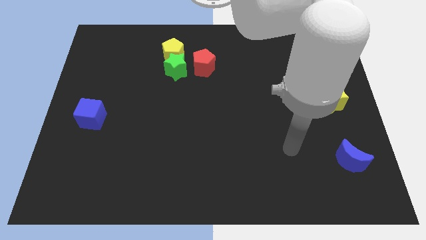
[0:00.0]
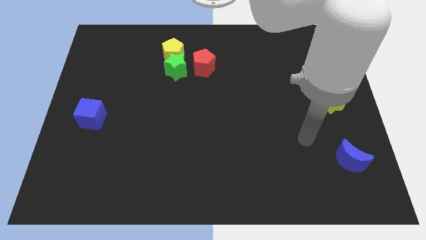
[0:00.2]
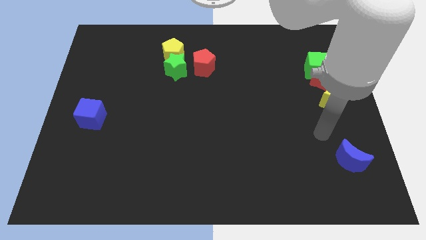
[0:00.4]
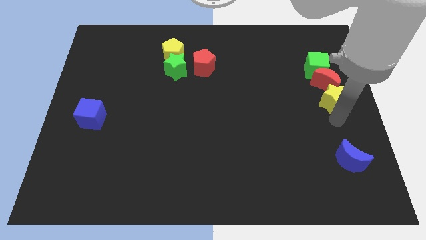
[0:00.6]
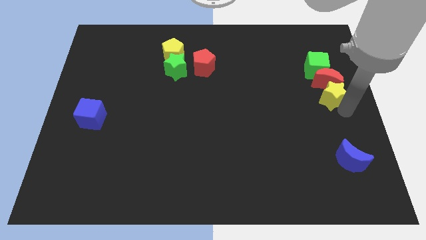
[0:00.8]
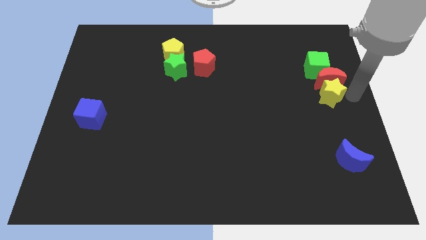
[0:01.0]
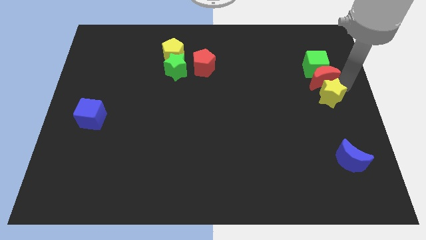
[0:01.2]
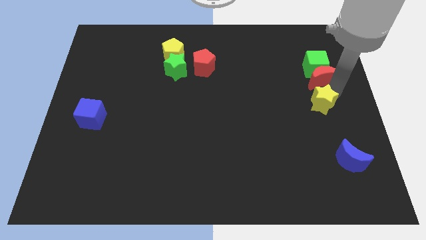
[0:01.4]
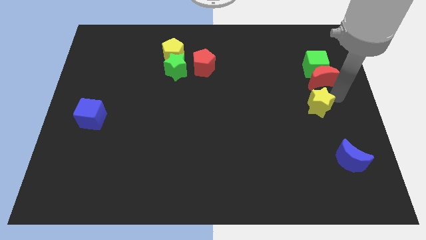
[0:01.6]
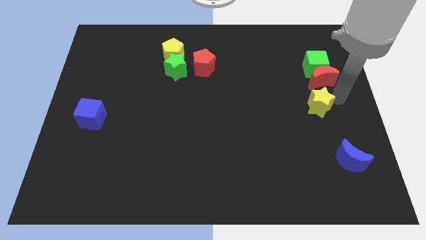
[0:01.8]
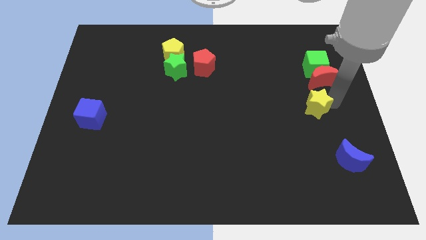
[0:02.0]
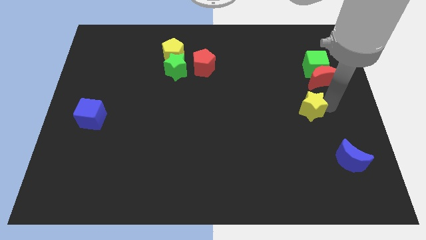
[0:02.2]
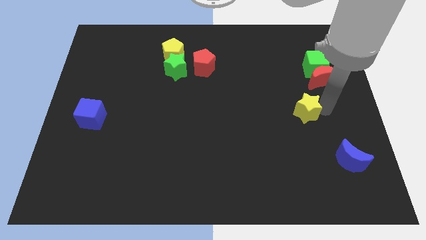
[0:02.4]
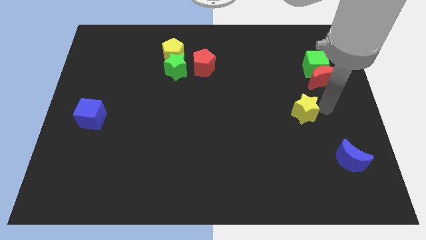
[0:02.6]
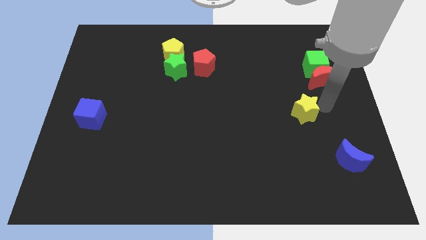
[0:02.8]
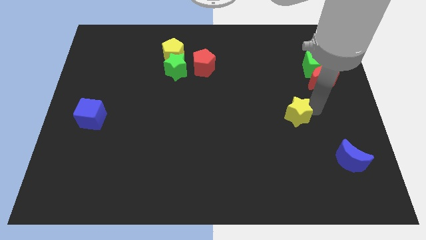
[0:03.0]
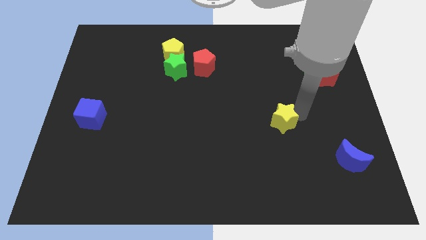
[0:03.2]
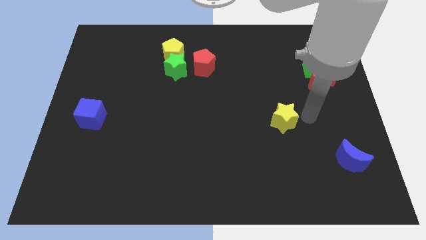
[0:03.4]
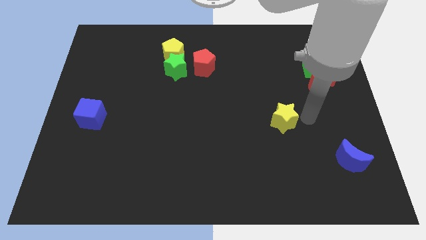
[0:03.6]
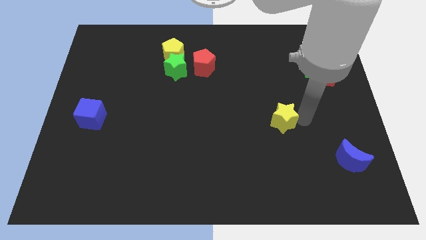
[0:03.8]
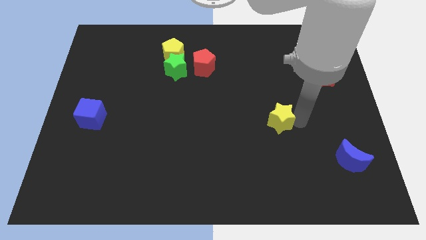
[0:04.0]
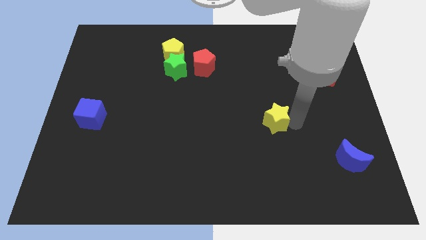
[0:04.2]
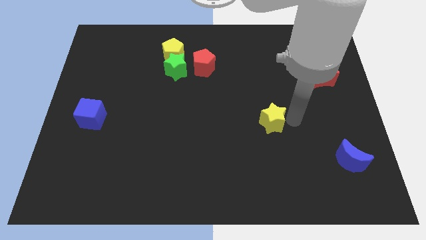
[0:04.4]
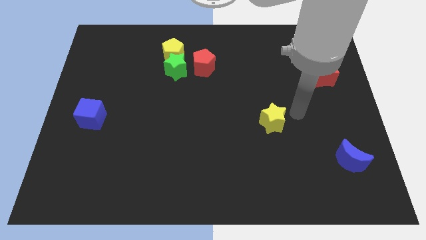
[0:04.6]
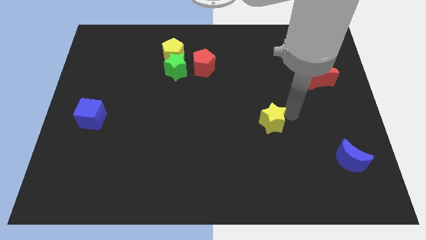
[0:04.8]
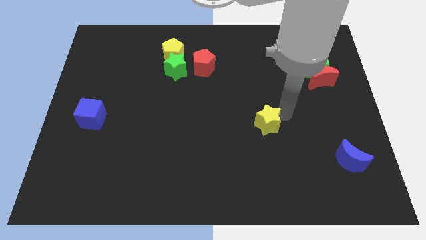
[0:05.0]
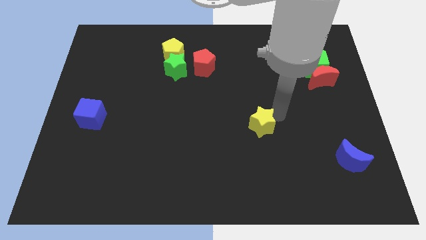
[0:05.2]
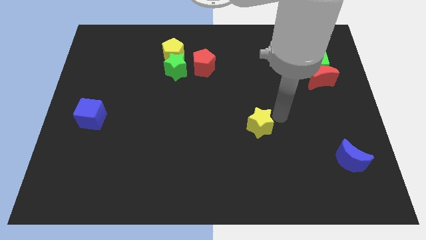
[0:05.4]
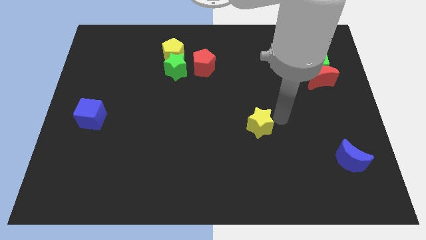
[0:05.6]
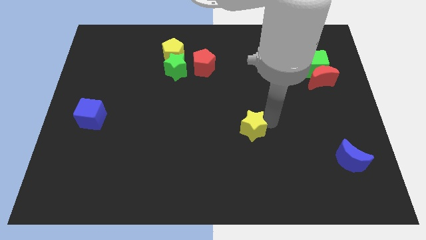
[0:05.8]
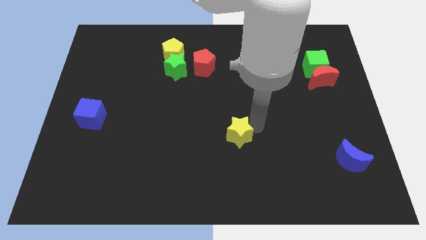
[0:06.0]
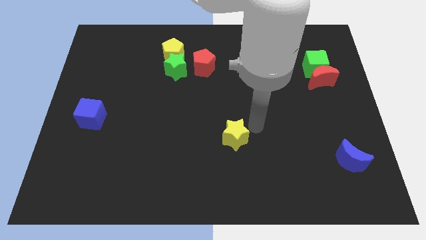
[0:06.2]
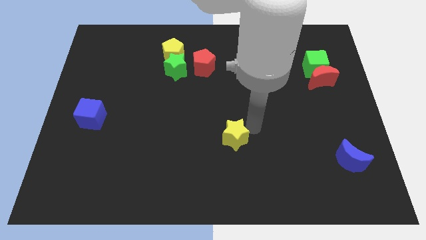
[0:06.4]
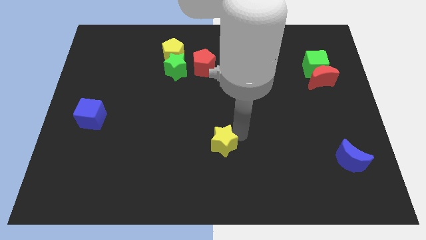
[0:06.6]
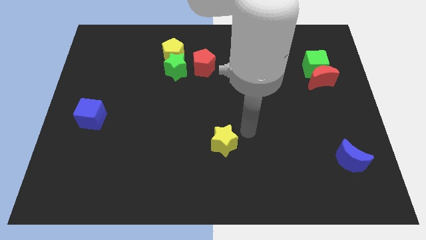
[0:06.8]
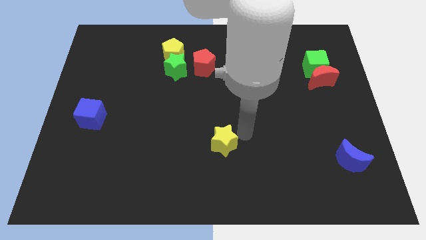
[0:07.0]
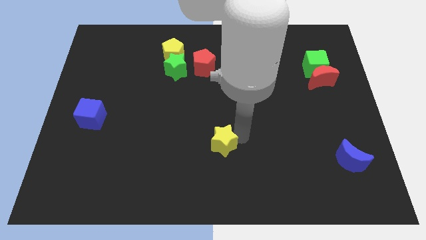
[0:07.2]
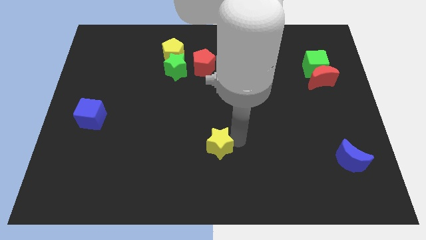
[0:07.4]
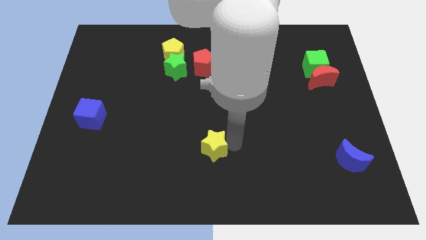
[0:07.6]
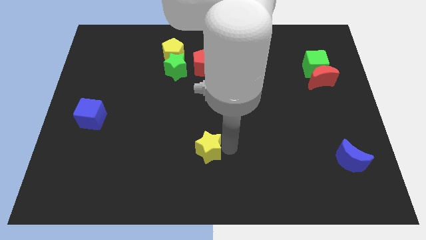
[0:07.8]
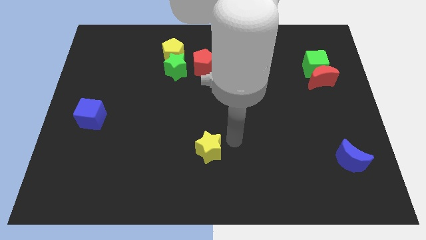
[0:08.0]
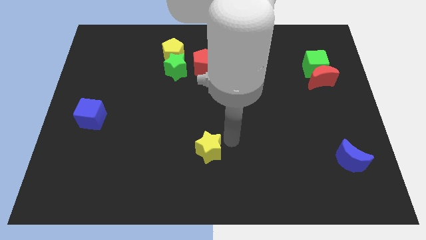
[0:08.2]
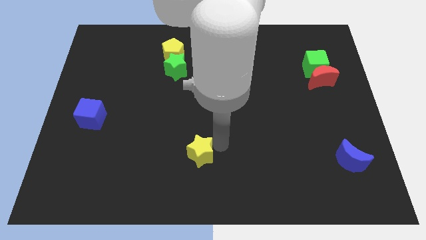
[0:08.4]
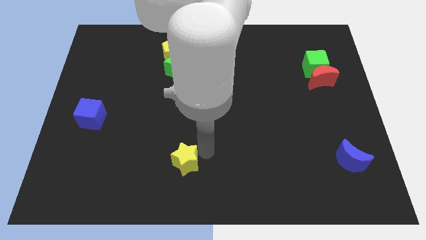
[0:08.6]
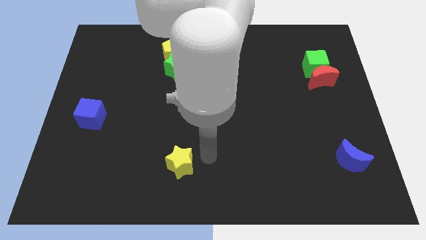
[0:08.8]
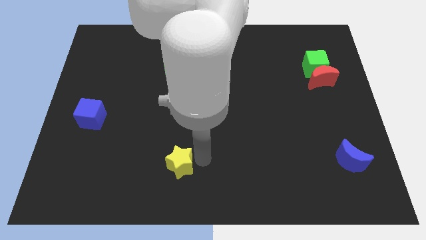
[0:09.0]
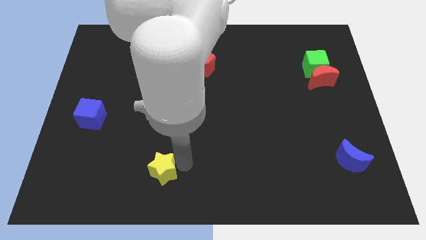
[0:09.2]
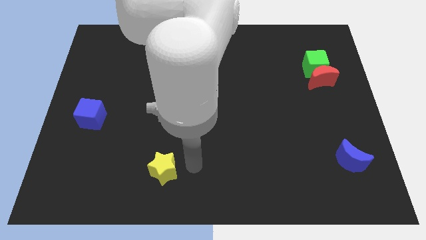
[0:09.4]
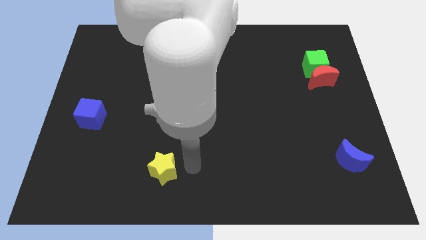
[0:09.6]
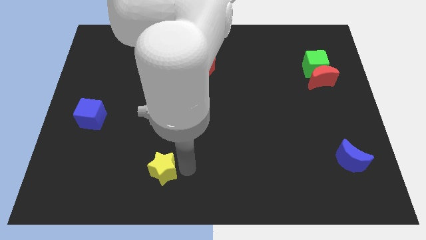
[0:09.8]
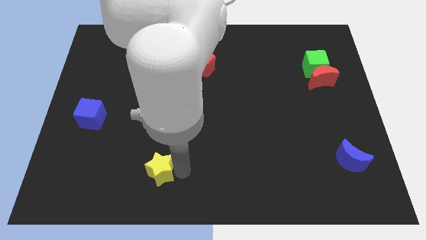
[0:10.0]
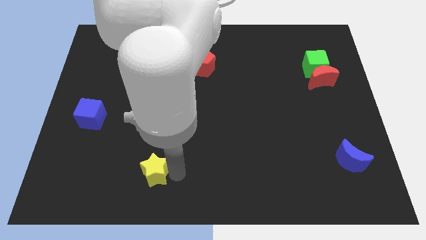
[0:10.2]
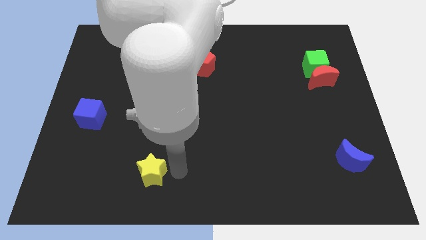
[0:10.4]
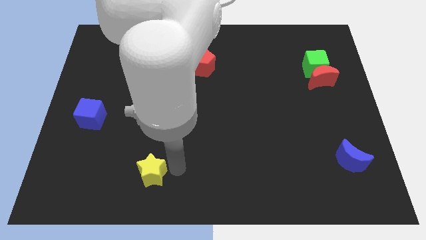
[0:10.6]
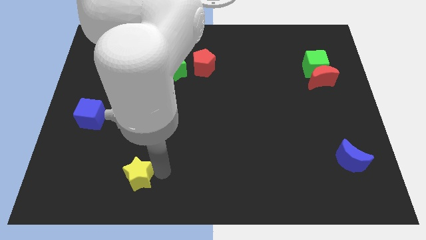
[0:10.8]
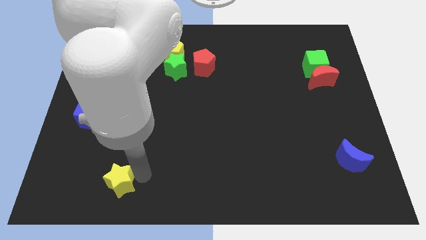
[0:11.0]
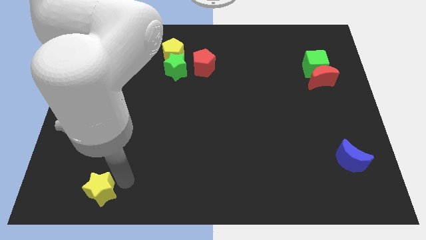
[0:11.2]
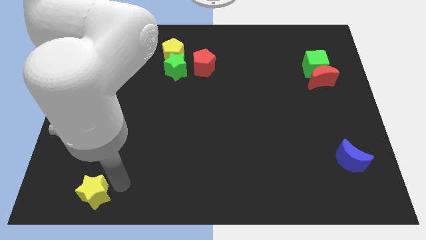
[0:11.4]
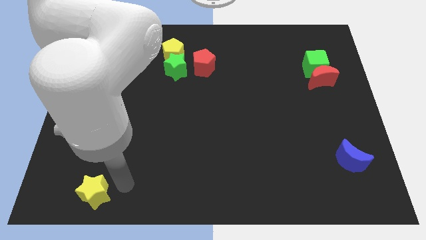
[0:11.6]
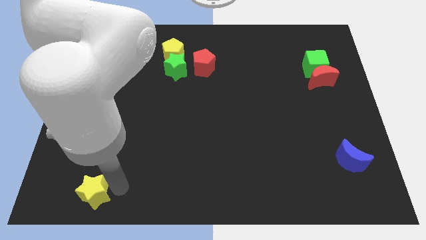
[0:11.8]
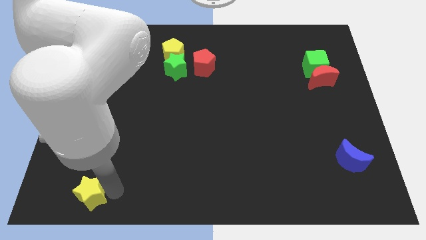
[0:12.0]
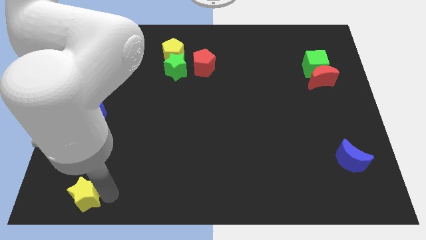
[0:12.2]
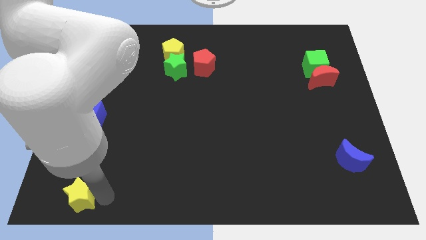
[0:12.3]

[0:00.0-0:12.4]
move the yellow star to the bottom left corner

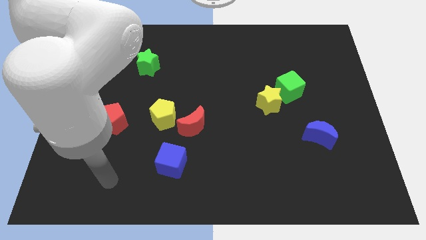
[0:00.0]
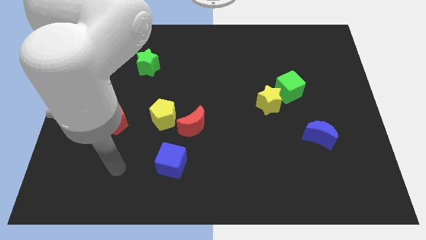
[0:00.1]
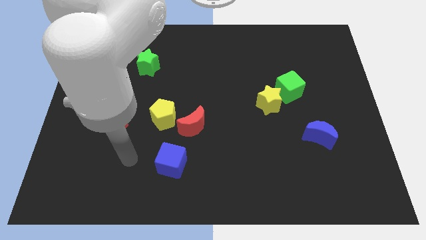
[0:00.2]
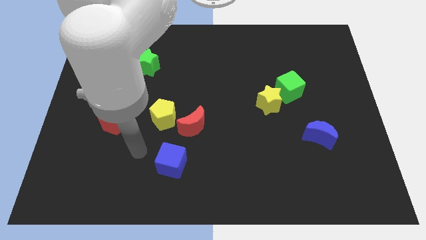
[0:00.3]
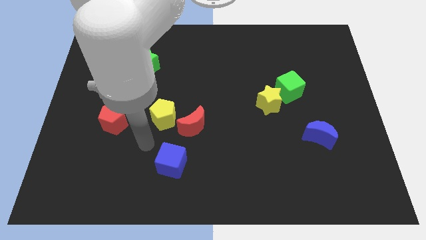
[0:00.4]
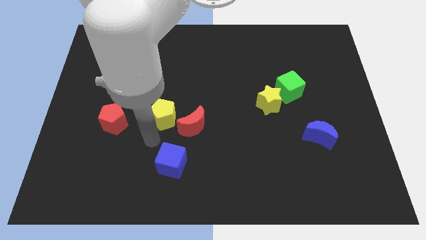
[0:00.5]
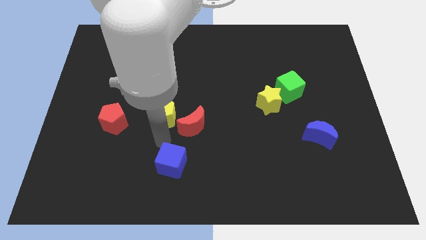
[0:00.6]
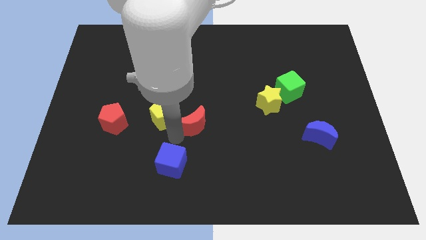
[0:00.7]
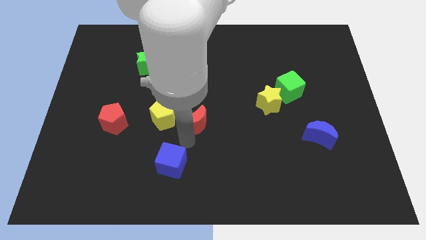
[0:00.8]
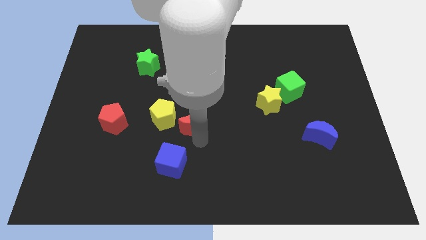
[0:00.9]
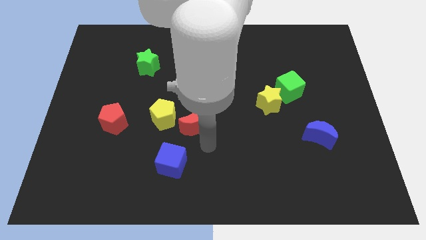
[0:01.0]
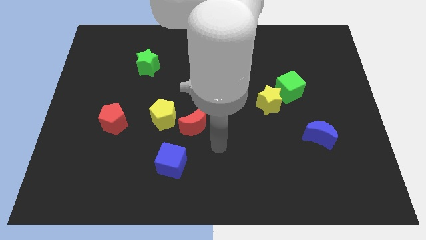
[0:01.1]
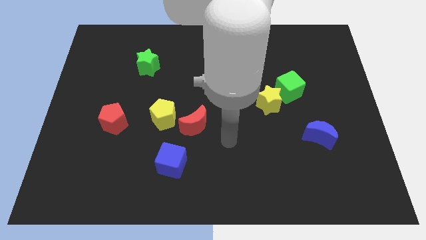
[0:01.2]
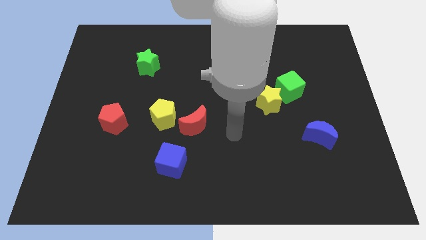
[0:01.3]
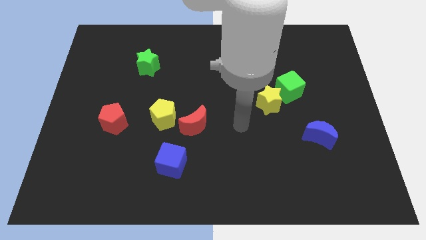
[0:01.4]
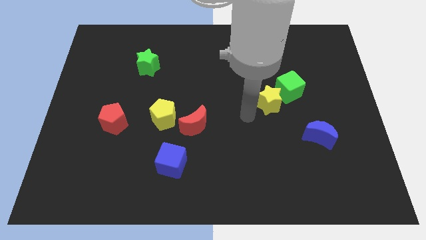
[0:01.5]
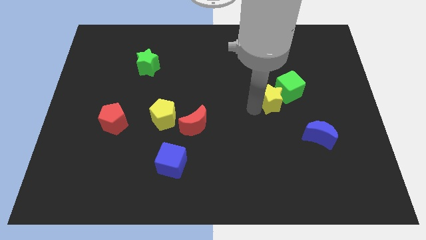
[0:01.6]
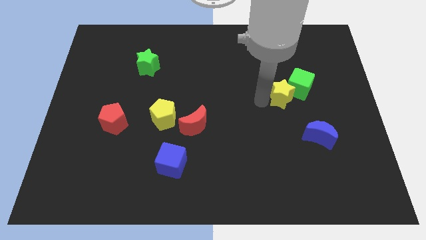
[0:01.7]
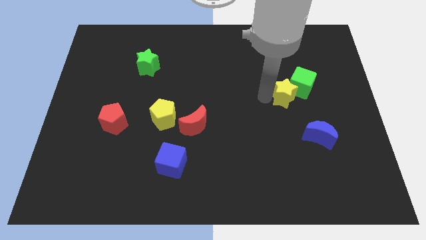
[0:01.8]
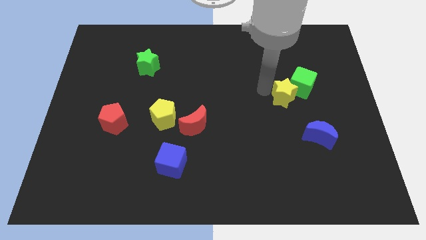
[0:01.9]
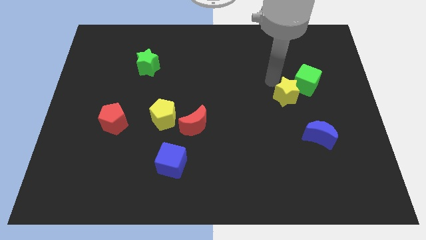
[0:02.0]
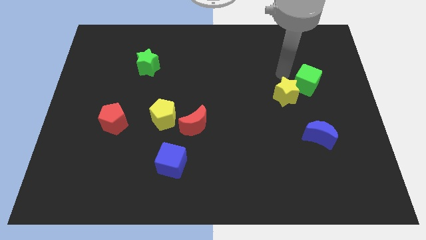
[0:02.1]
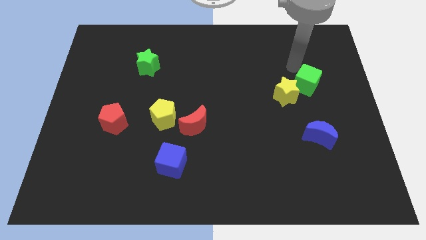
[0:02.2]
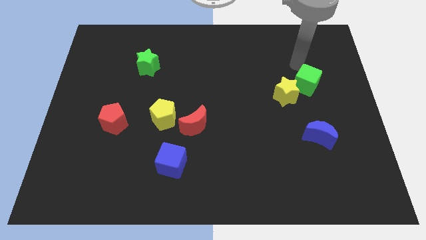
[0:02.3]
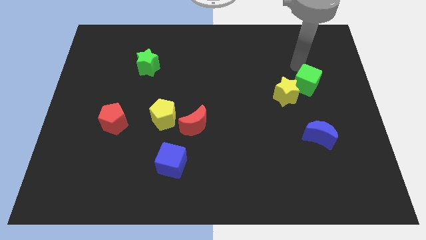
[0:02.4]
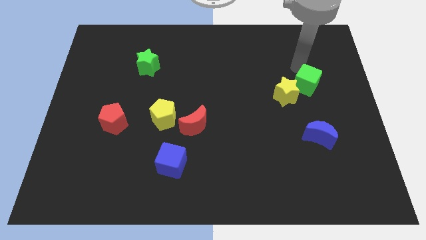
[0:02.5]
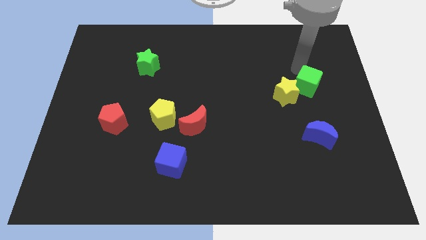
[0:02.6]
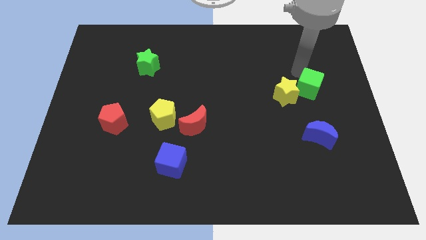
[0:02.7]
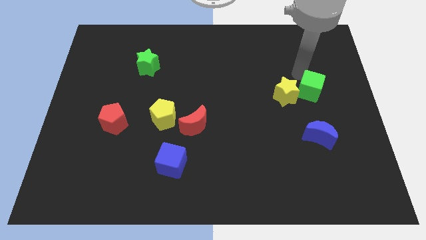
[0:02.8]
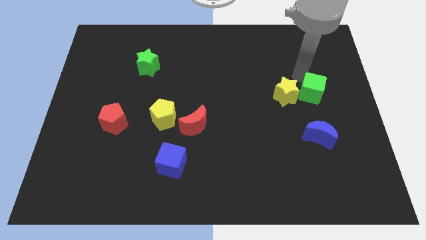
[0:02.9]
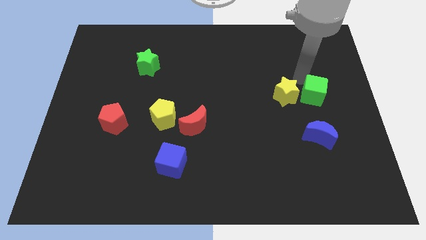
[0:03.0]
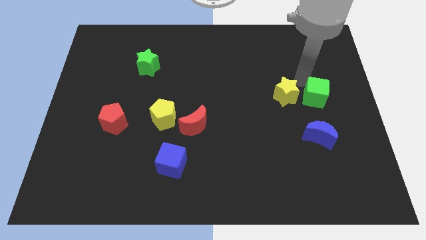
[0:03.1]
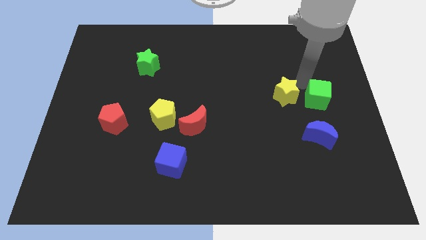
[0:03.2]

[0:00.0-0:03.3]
move the green cube to the right side of the board
